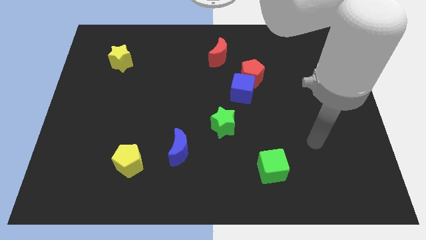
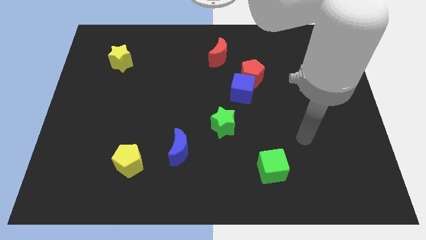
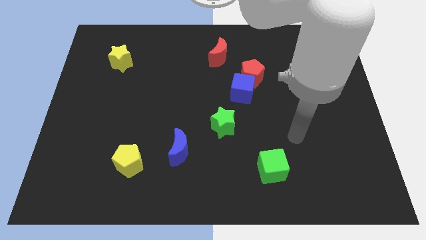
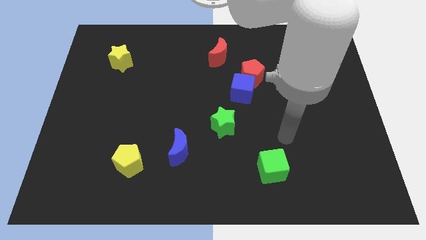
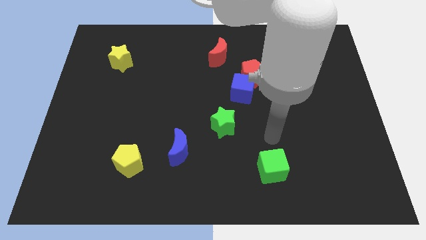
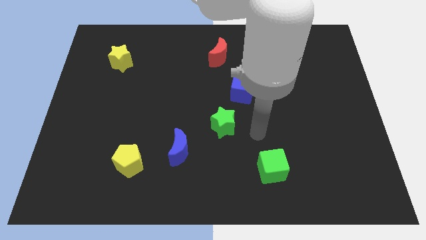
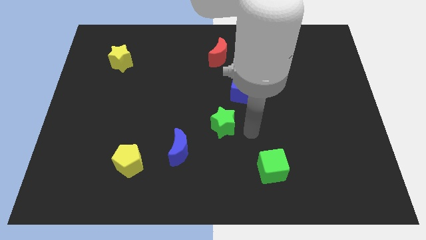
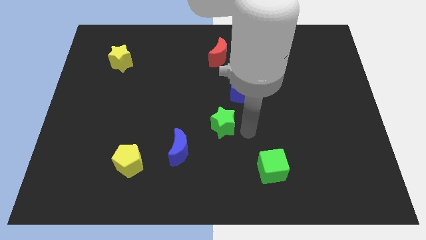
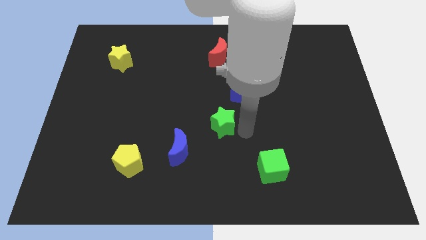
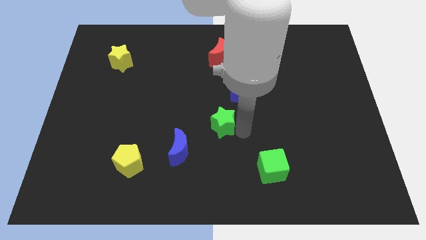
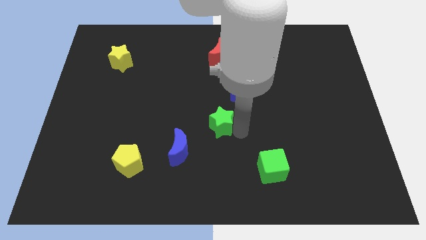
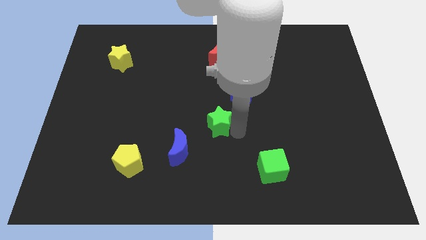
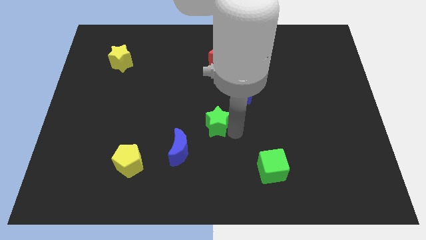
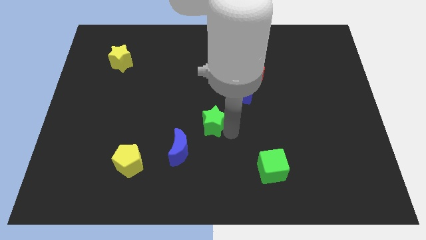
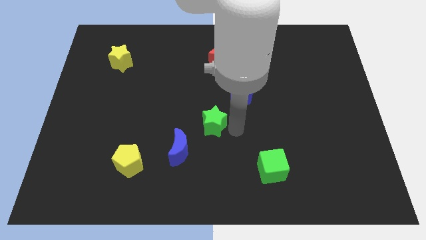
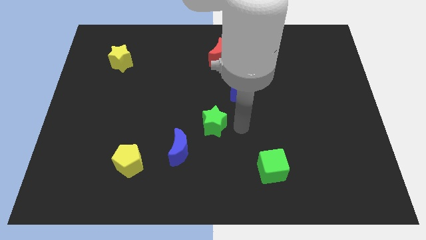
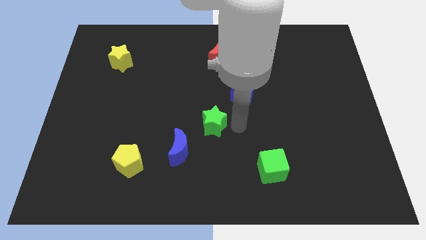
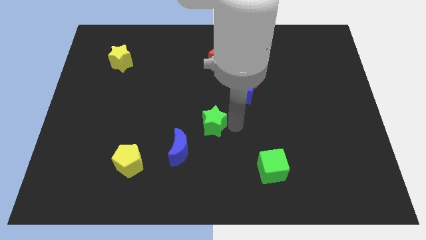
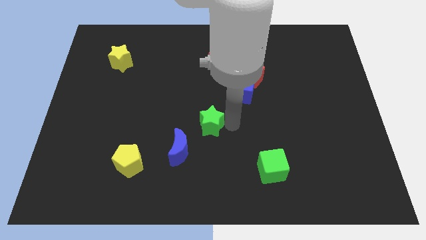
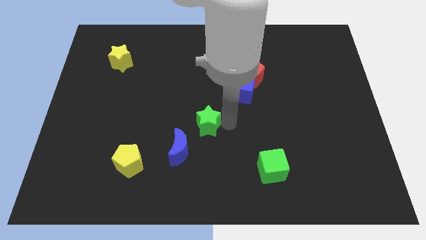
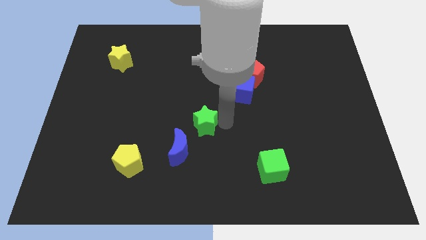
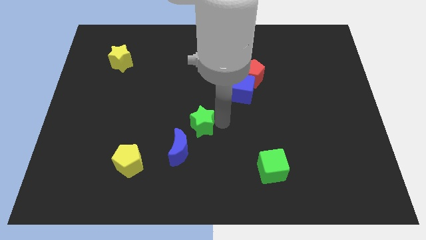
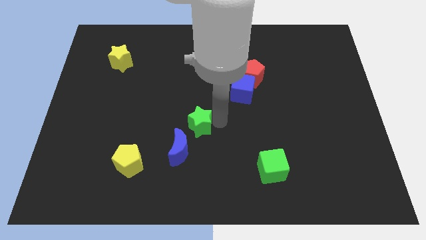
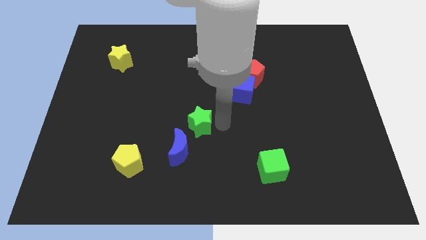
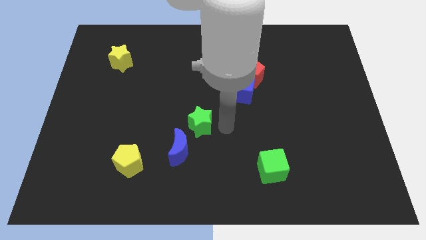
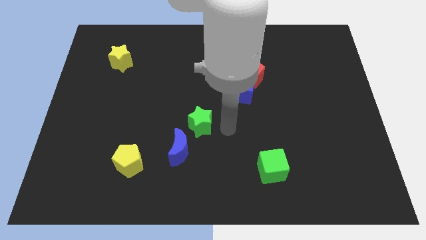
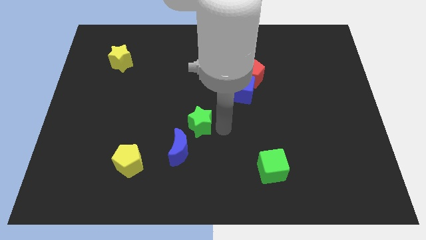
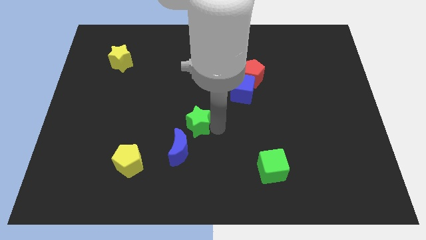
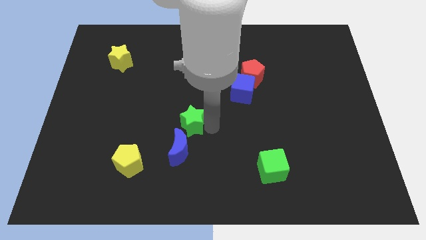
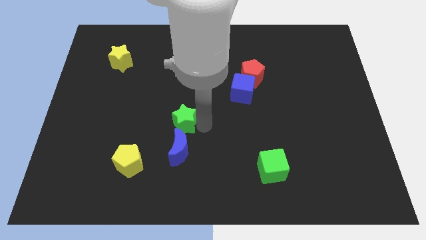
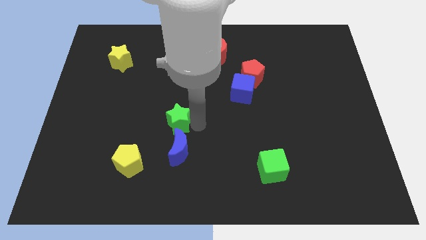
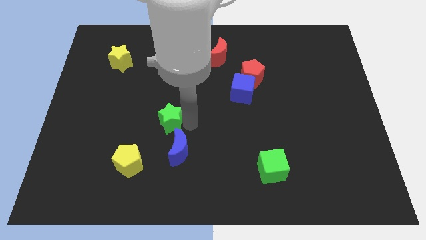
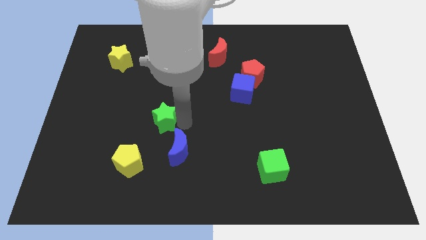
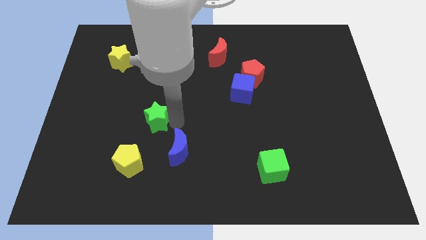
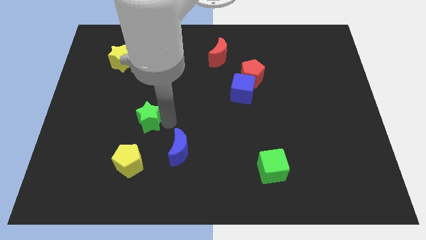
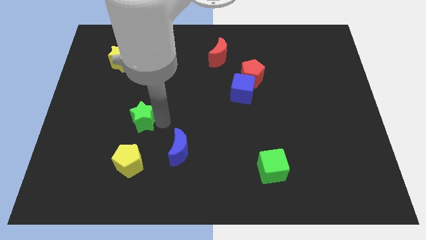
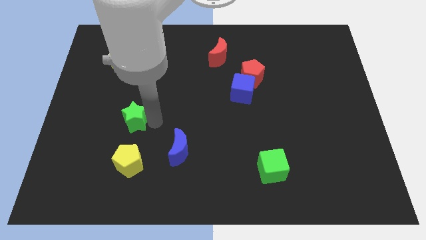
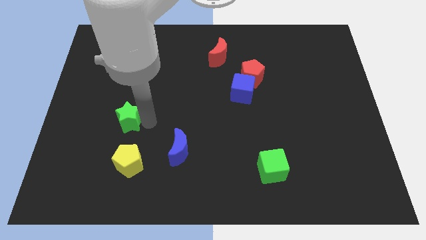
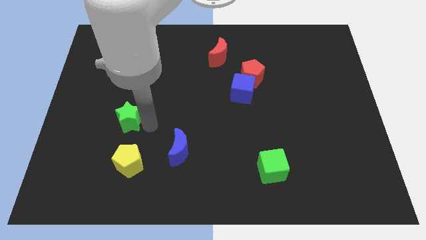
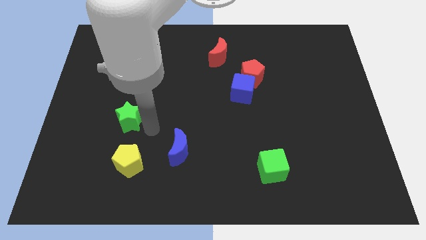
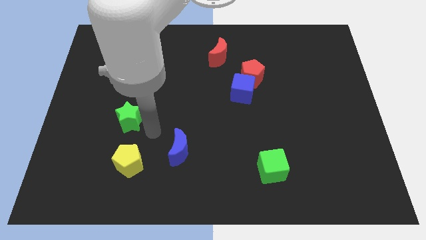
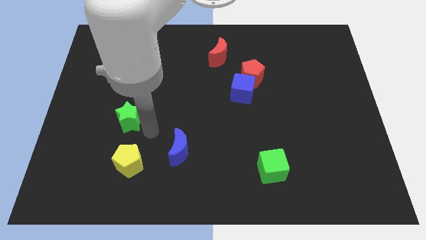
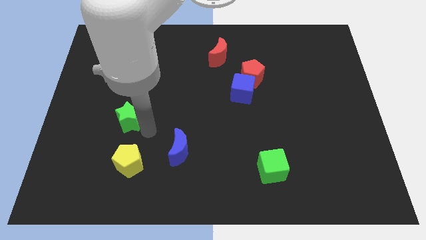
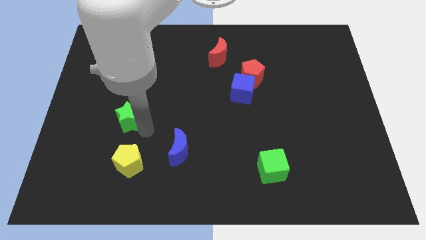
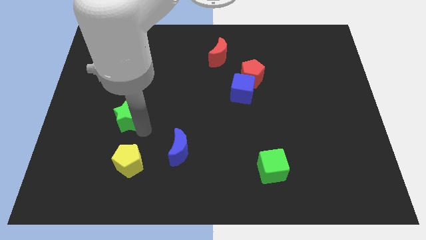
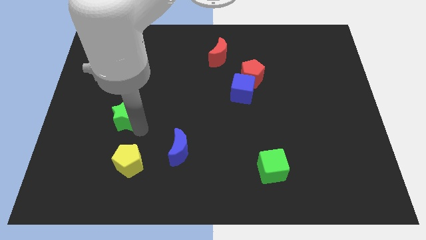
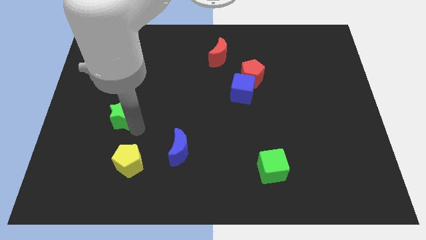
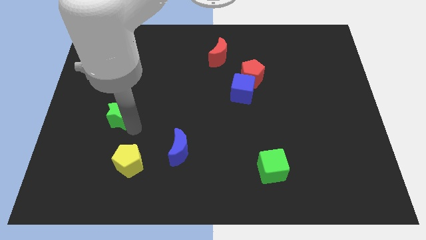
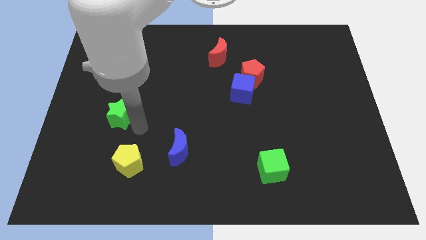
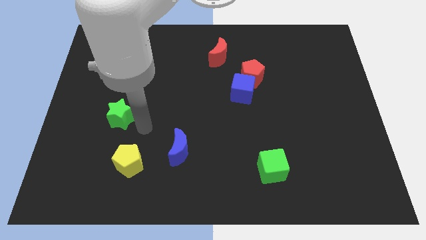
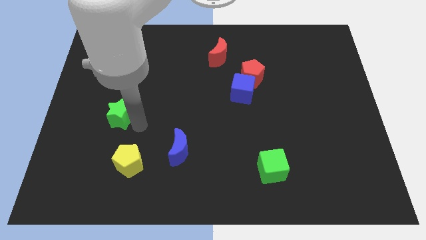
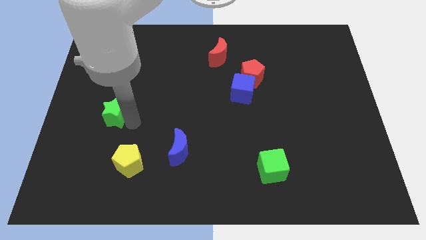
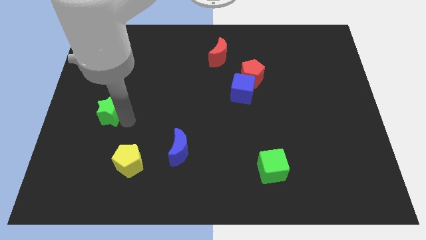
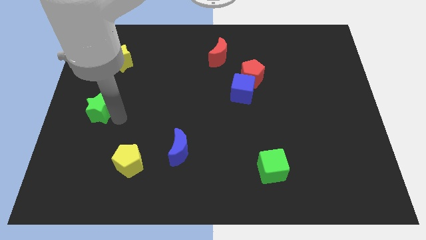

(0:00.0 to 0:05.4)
move the green star to the left side of the board

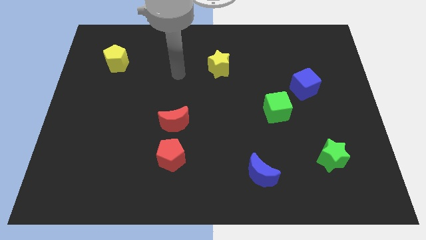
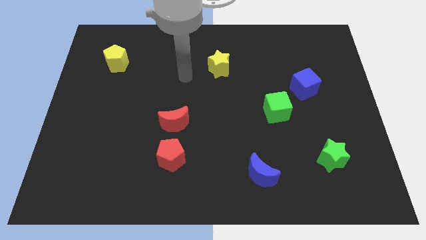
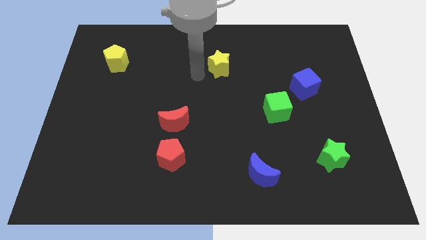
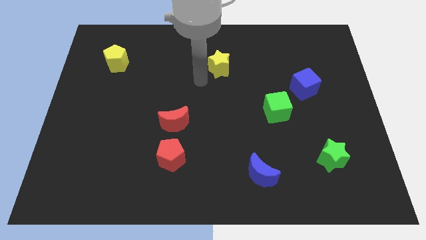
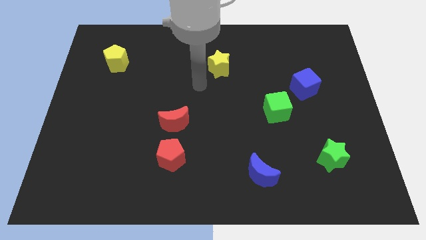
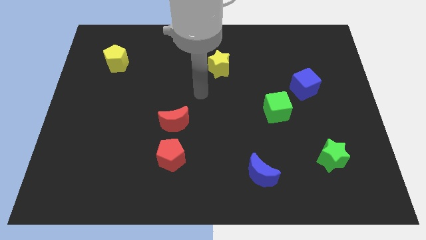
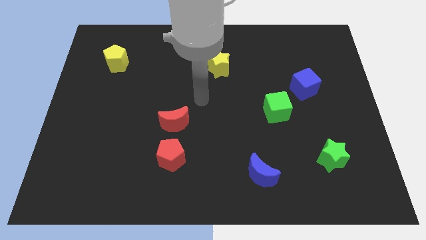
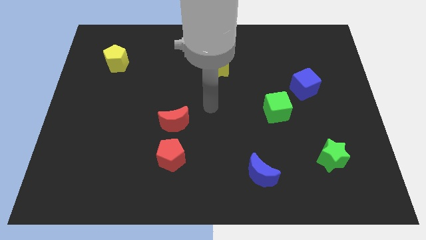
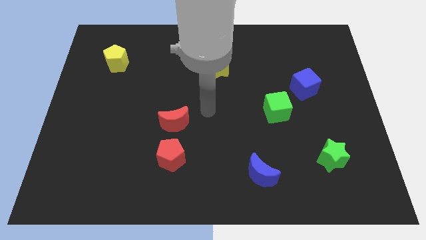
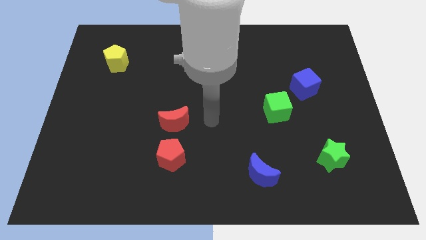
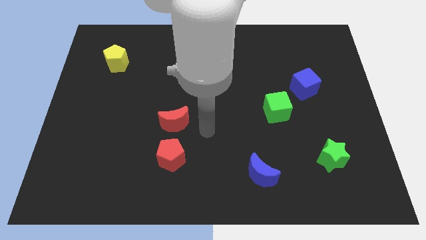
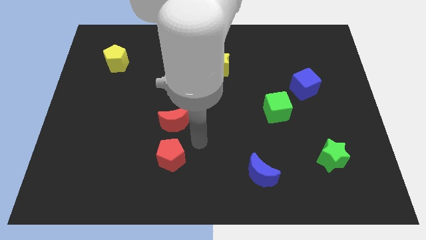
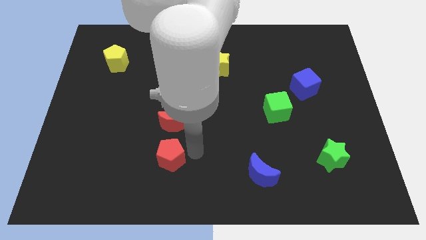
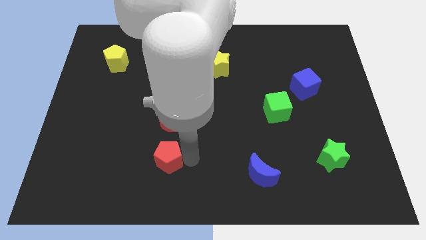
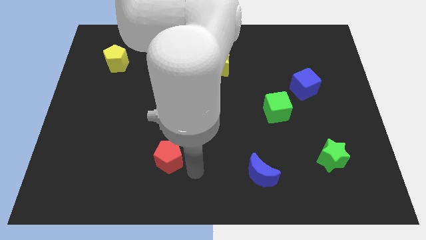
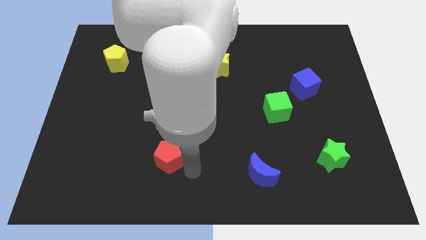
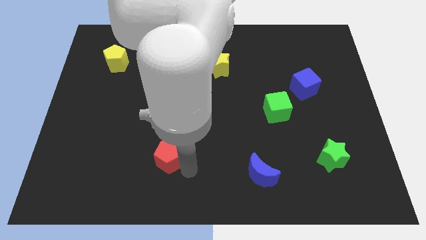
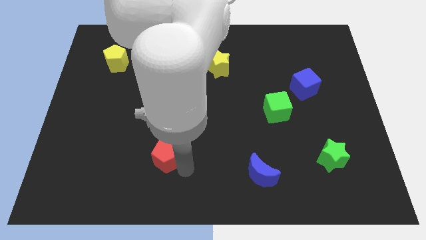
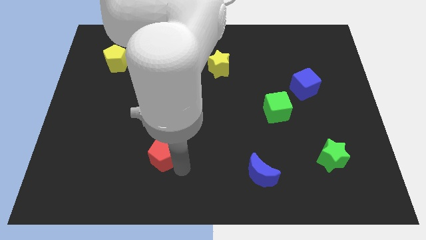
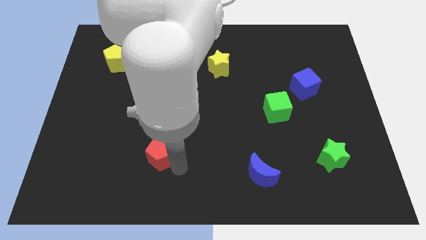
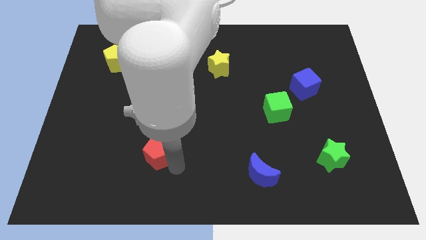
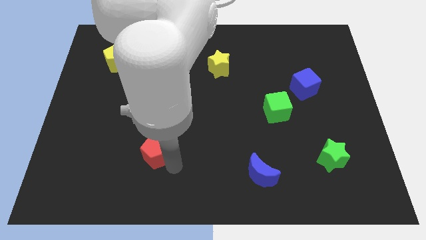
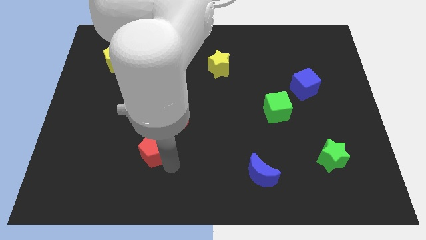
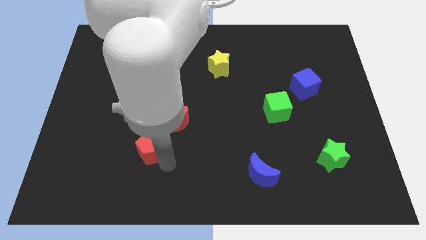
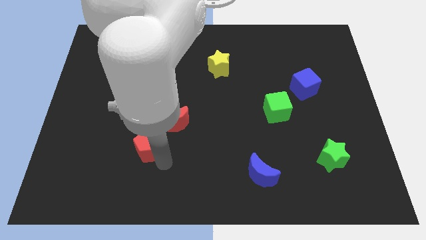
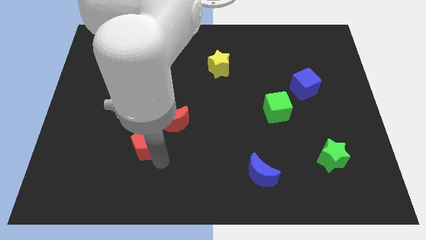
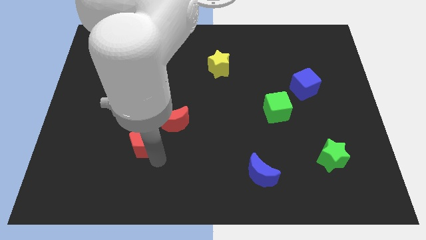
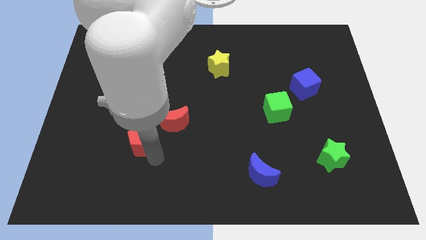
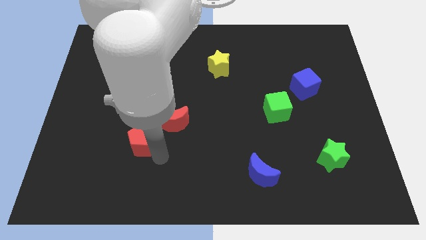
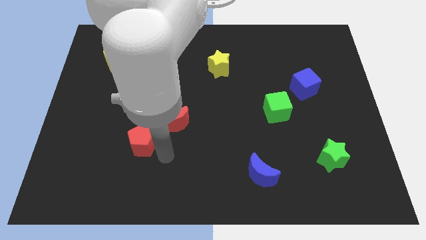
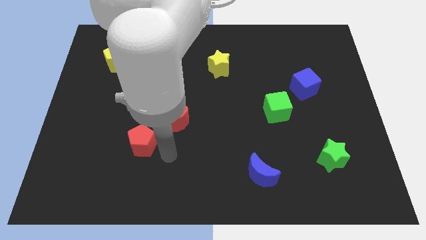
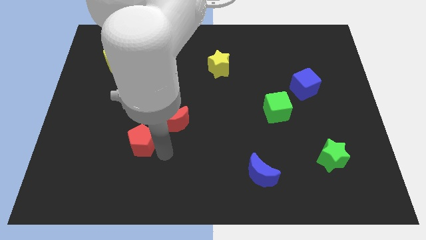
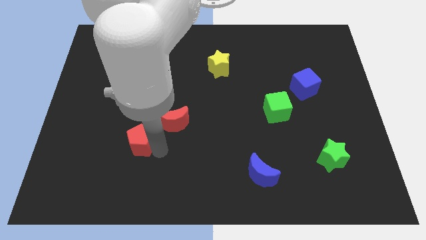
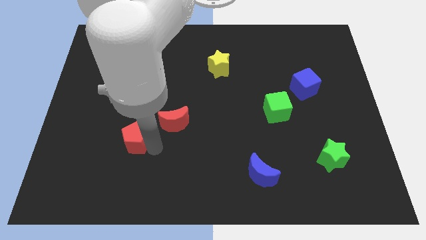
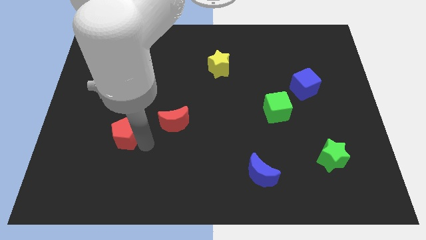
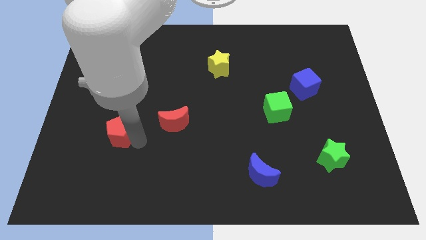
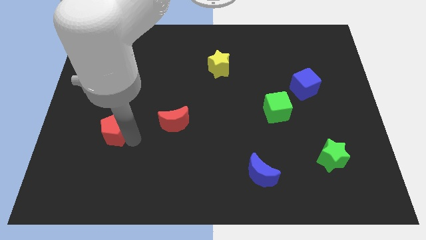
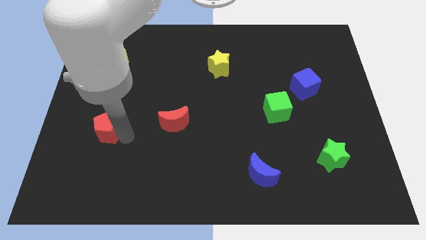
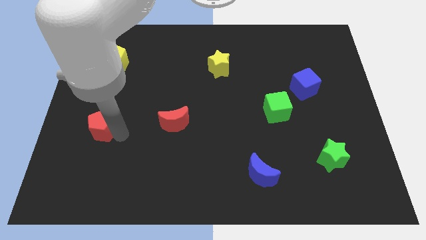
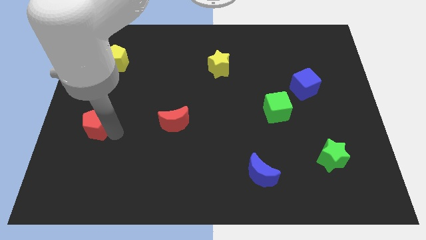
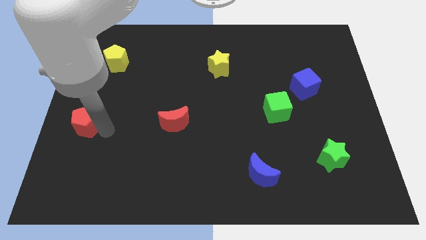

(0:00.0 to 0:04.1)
put the red pentagon to the left side of the board
